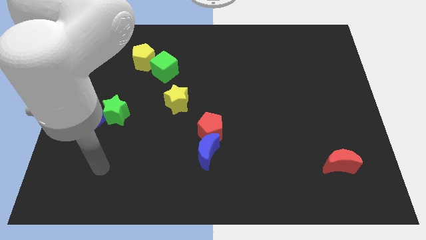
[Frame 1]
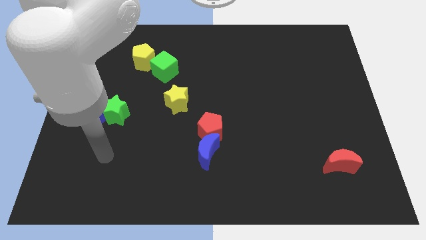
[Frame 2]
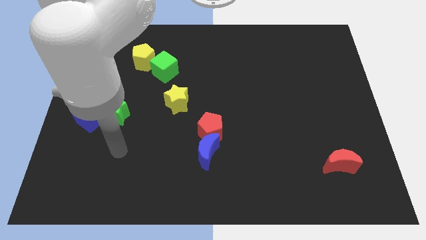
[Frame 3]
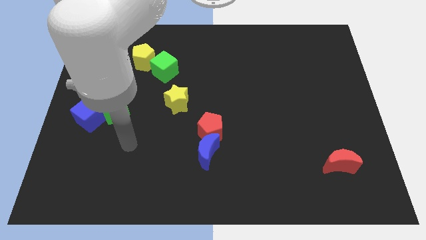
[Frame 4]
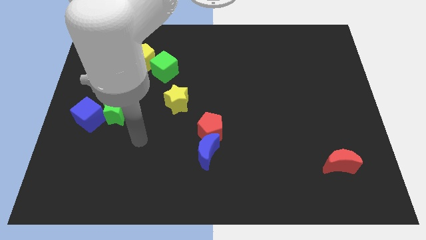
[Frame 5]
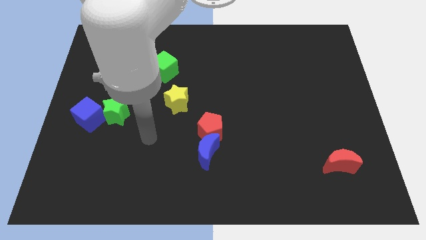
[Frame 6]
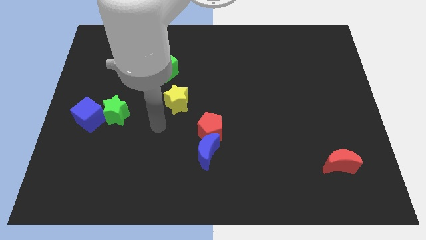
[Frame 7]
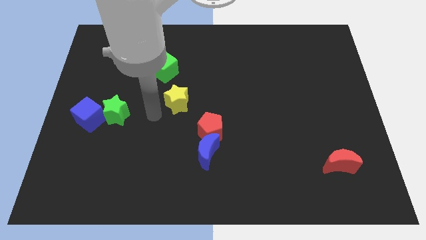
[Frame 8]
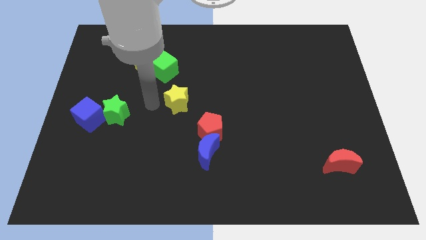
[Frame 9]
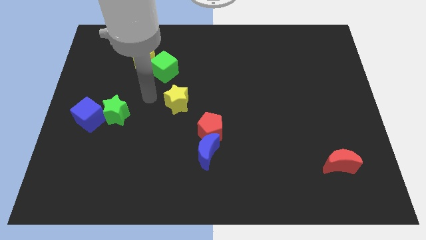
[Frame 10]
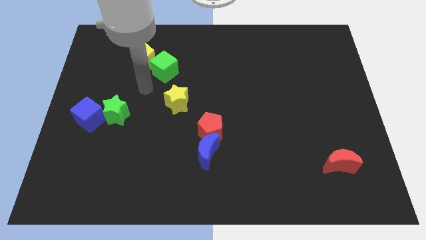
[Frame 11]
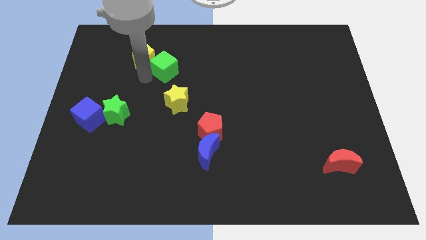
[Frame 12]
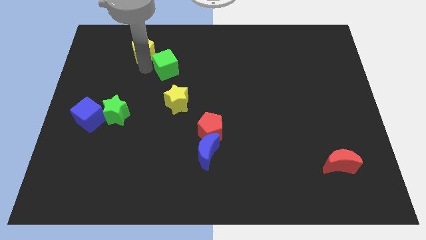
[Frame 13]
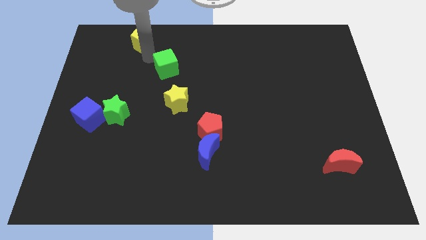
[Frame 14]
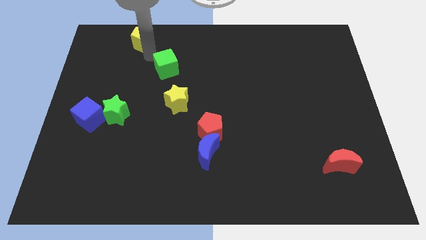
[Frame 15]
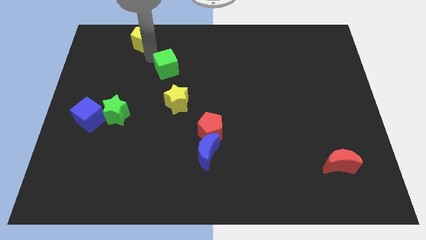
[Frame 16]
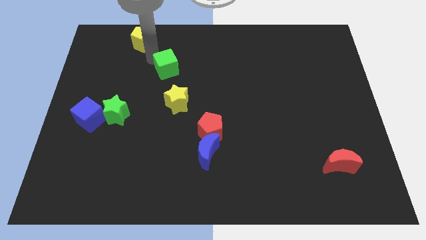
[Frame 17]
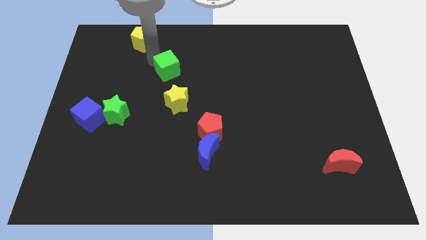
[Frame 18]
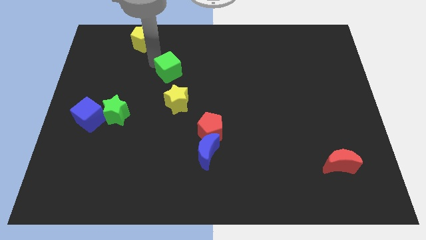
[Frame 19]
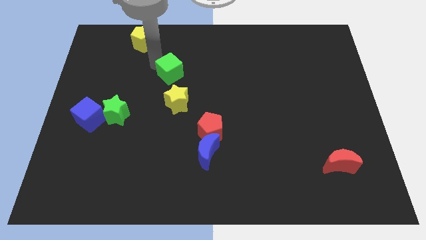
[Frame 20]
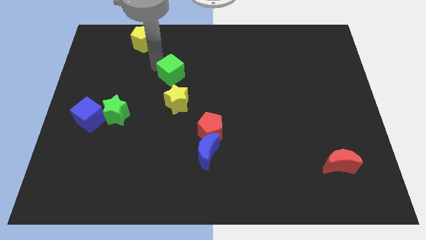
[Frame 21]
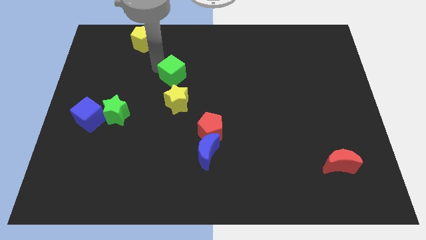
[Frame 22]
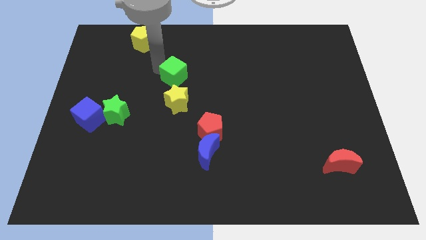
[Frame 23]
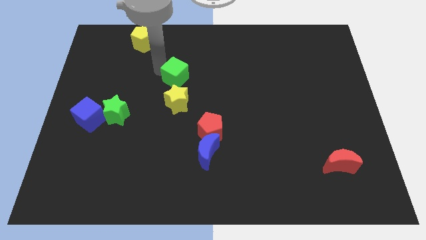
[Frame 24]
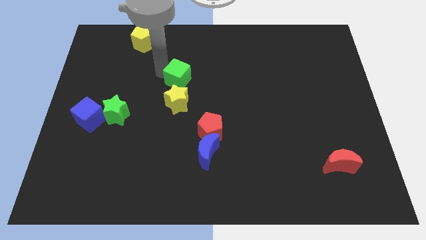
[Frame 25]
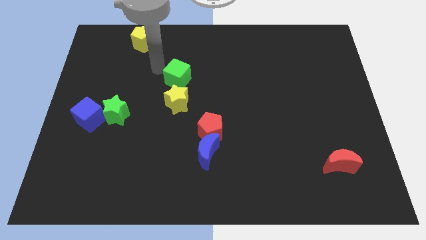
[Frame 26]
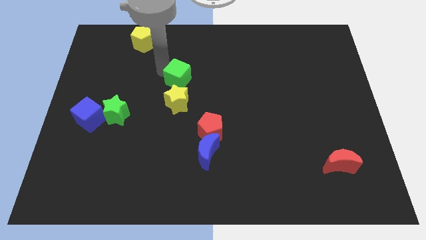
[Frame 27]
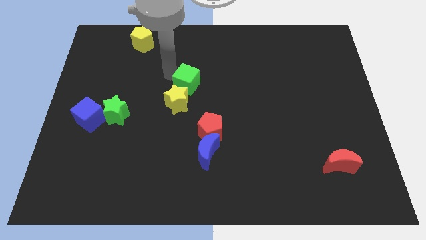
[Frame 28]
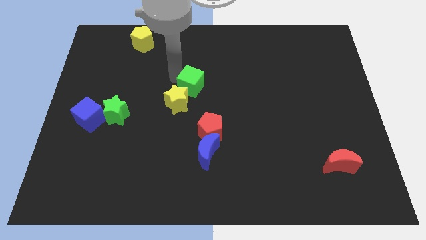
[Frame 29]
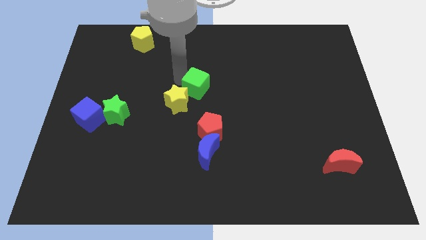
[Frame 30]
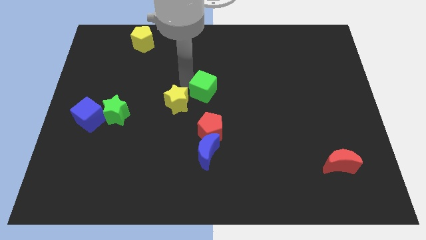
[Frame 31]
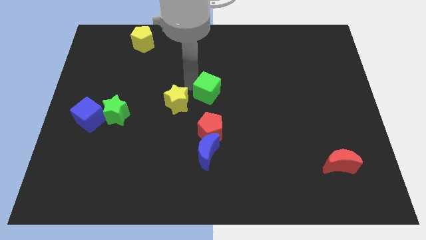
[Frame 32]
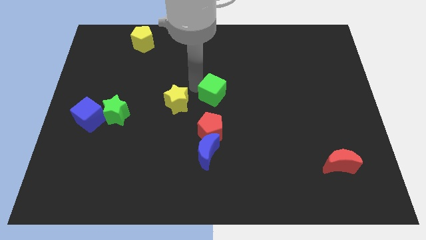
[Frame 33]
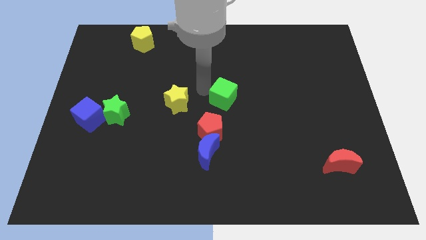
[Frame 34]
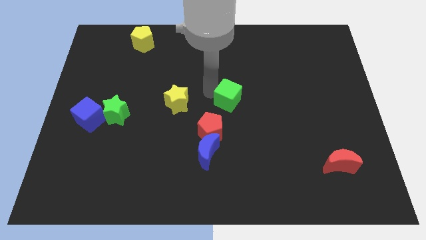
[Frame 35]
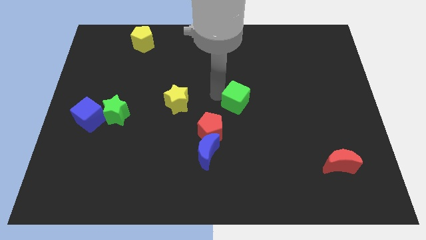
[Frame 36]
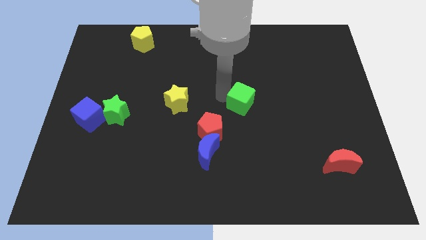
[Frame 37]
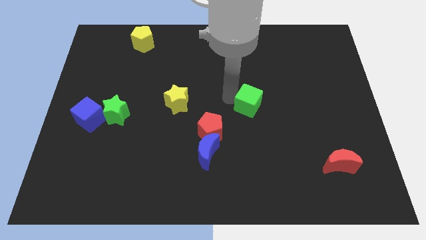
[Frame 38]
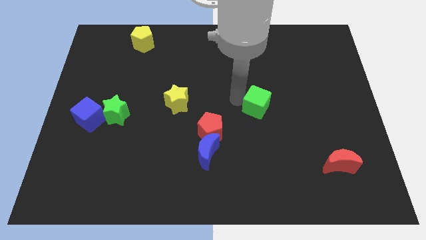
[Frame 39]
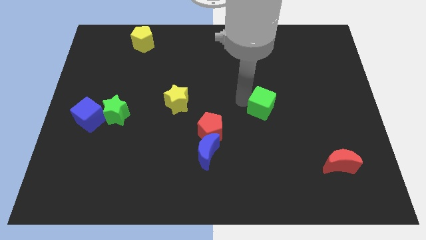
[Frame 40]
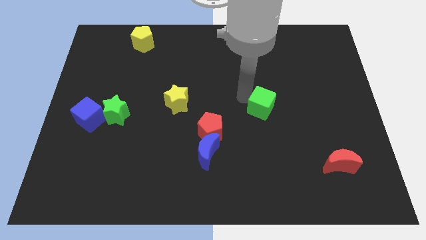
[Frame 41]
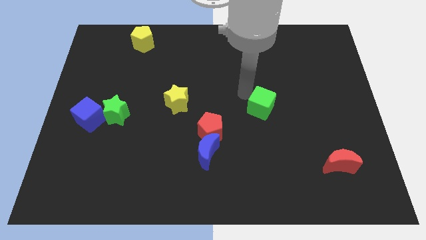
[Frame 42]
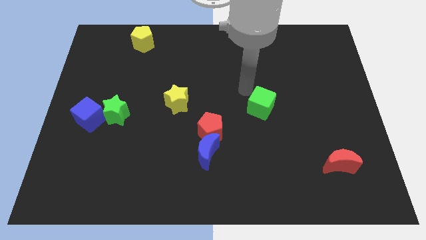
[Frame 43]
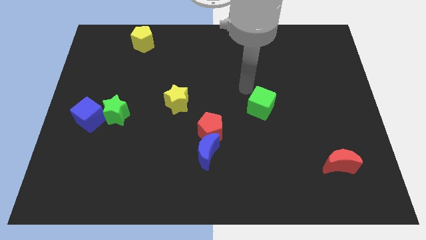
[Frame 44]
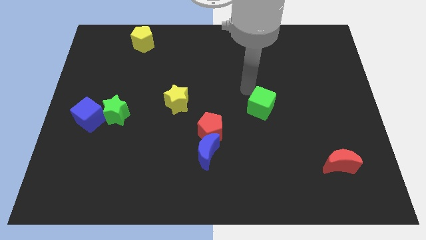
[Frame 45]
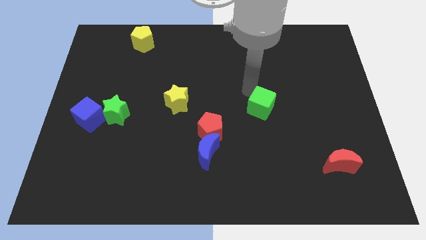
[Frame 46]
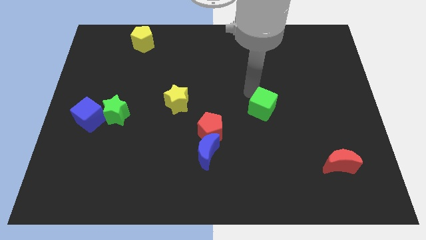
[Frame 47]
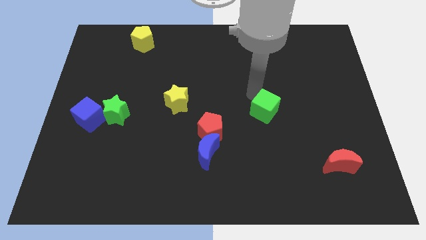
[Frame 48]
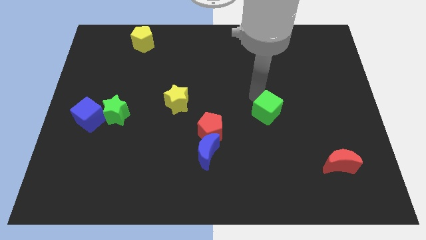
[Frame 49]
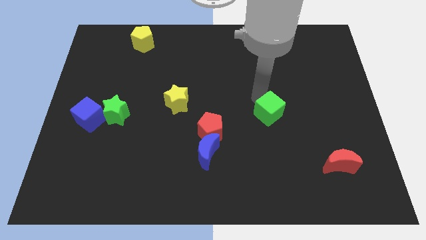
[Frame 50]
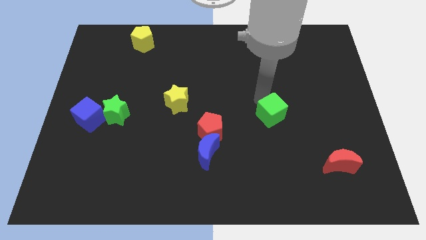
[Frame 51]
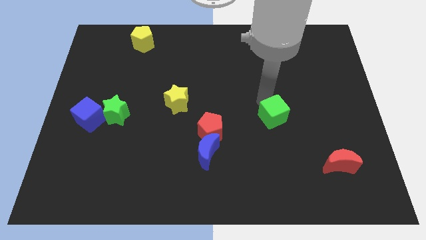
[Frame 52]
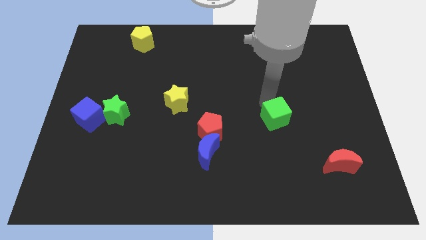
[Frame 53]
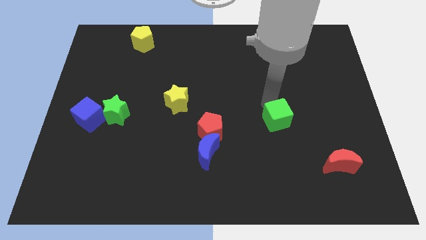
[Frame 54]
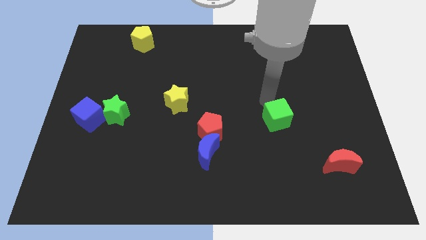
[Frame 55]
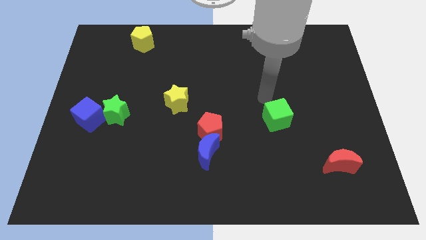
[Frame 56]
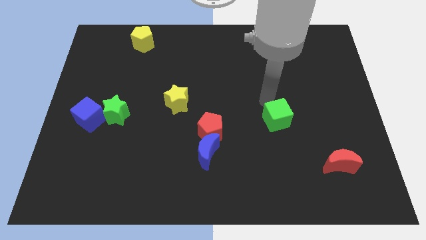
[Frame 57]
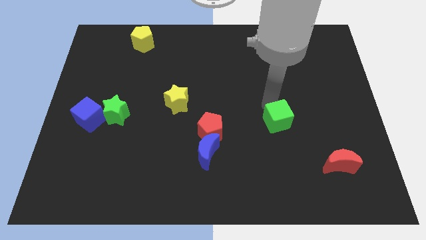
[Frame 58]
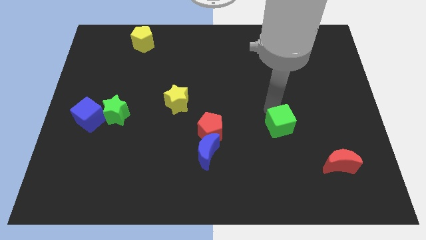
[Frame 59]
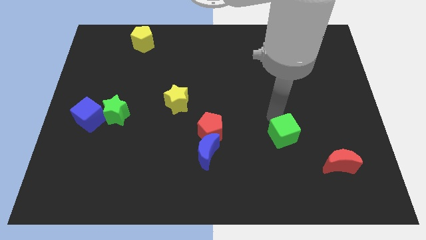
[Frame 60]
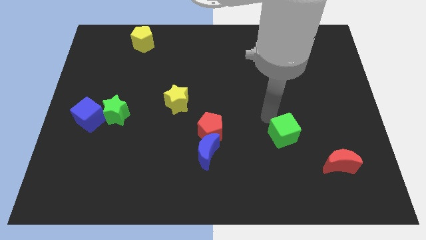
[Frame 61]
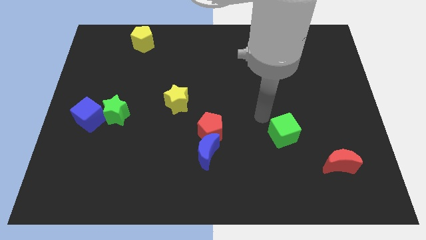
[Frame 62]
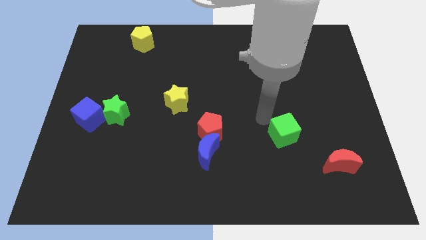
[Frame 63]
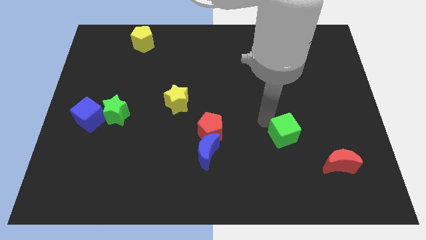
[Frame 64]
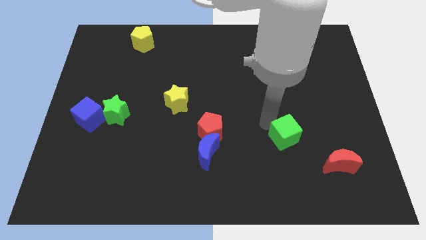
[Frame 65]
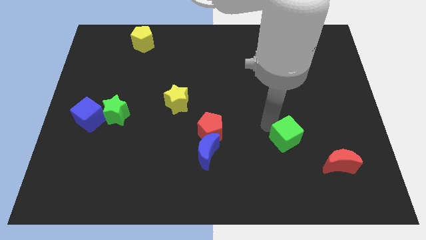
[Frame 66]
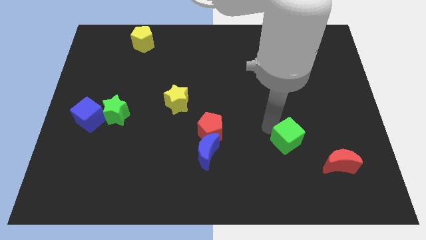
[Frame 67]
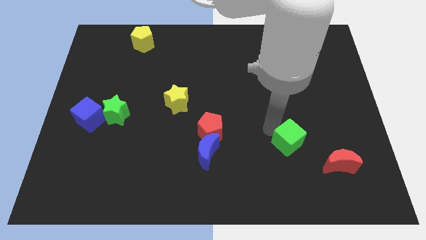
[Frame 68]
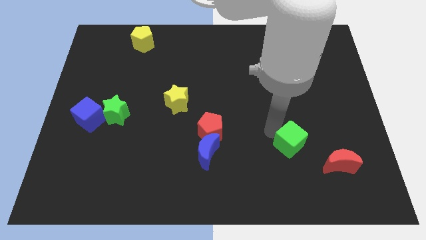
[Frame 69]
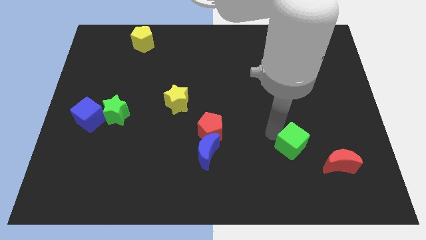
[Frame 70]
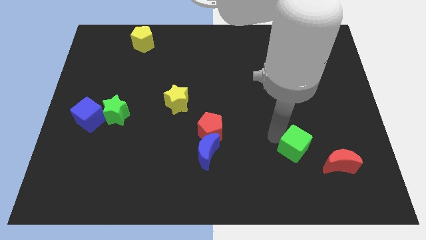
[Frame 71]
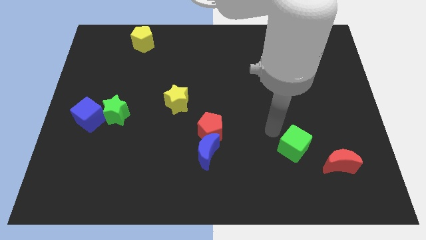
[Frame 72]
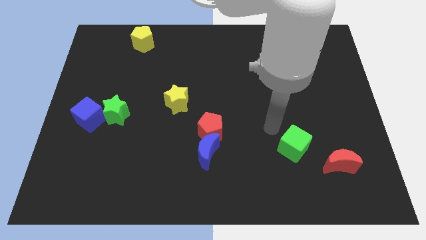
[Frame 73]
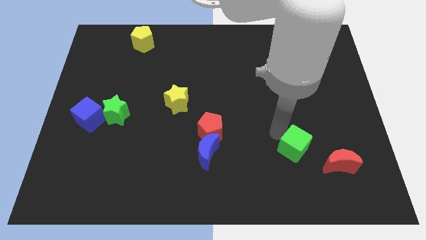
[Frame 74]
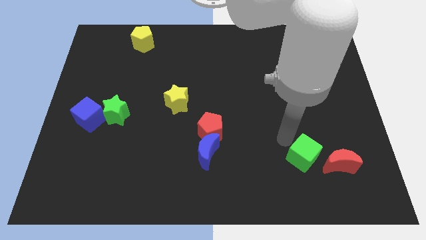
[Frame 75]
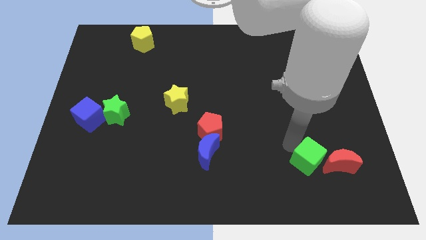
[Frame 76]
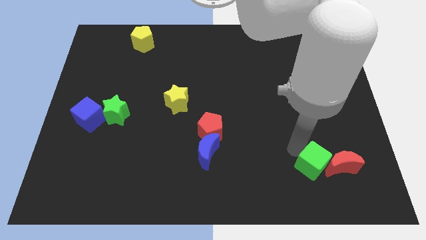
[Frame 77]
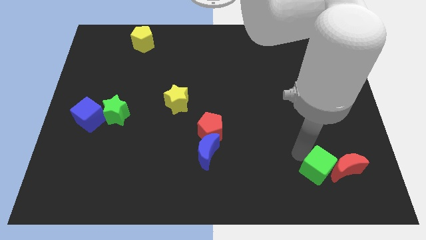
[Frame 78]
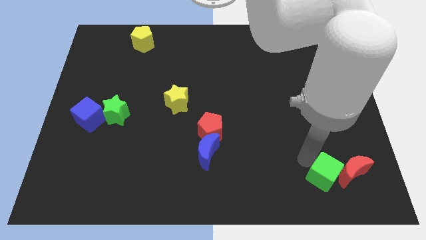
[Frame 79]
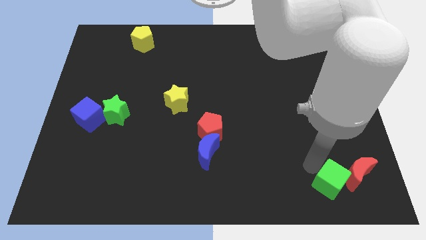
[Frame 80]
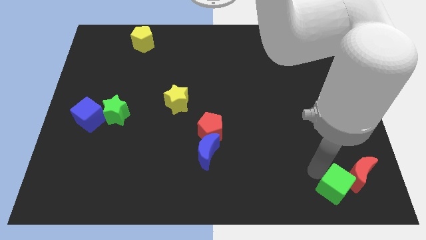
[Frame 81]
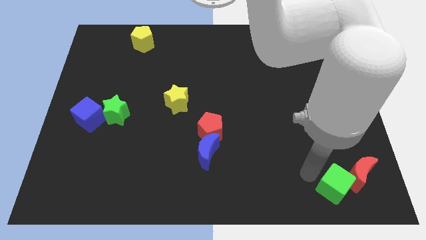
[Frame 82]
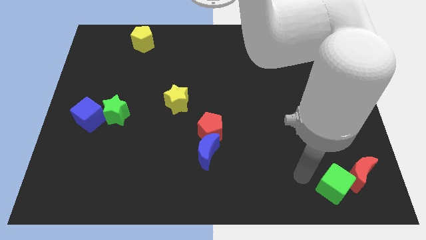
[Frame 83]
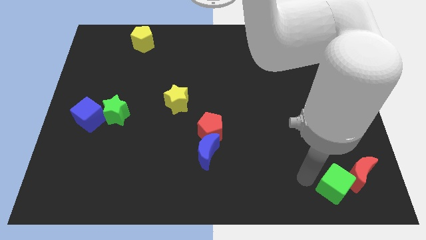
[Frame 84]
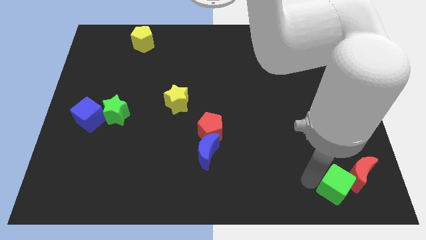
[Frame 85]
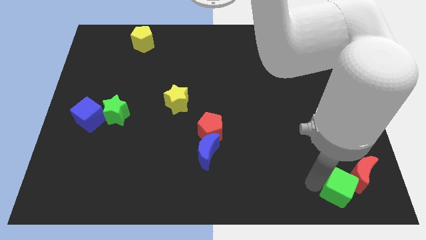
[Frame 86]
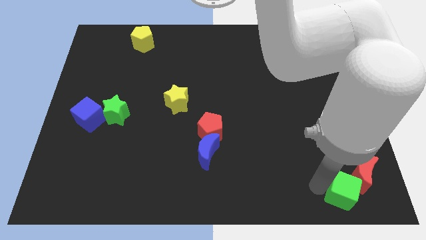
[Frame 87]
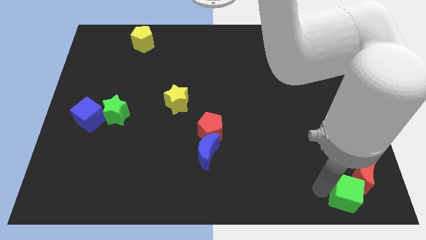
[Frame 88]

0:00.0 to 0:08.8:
move the green cube to the bottom right corner
